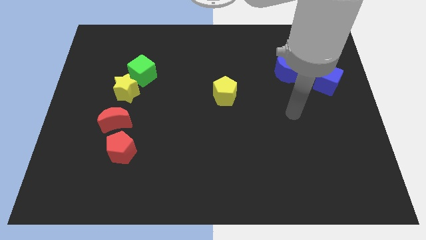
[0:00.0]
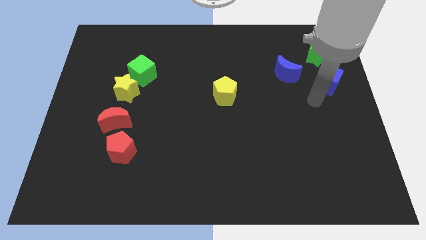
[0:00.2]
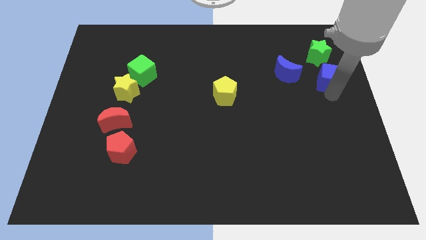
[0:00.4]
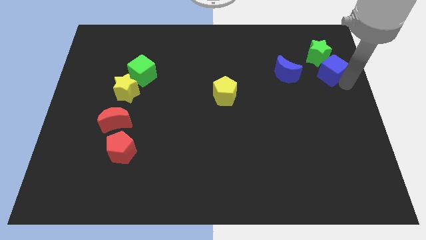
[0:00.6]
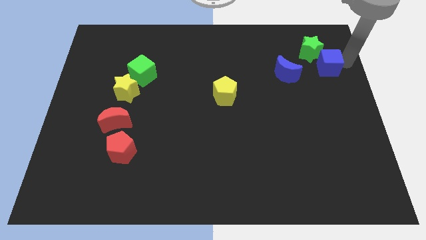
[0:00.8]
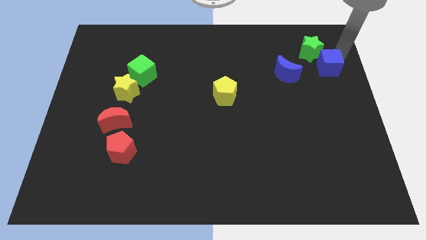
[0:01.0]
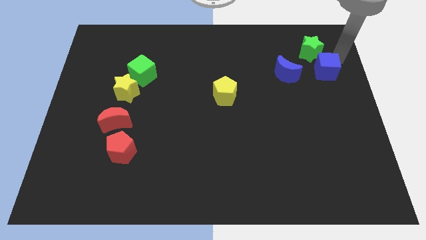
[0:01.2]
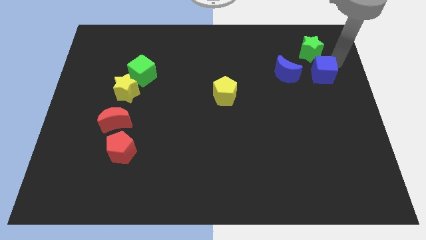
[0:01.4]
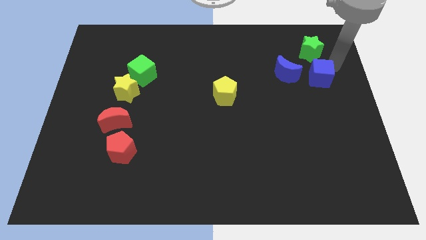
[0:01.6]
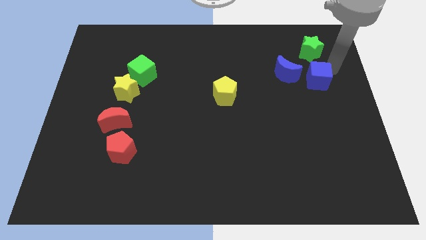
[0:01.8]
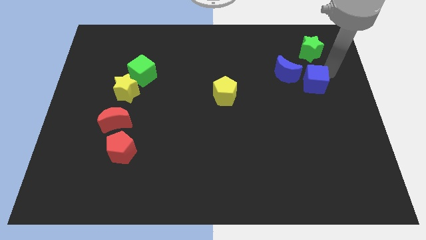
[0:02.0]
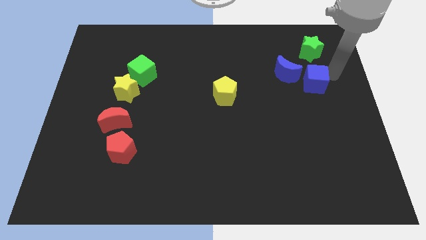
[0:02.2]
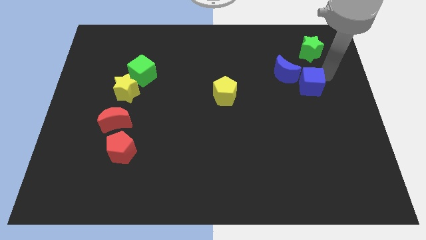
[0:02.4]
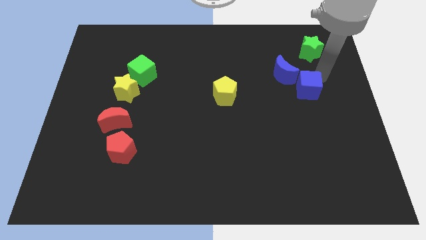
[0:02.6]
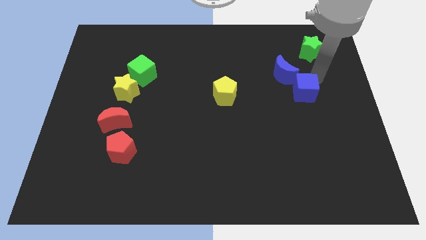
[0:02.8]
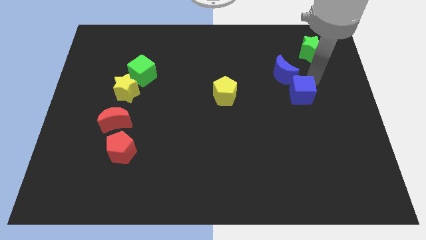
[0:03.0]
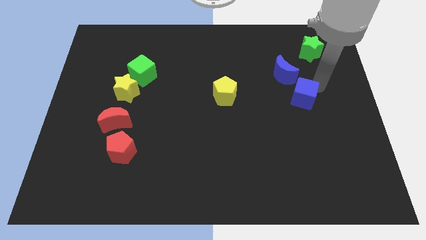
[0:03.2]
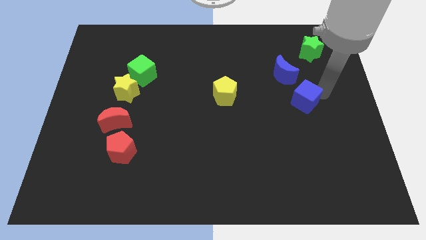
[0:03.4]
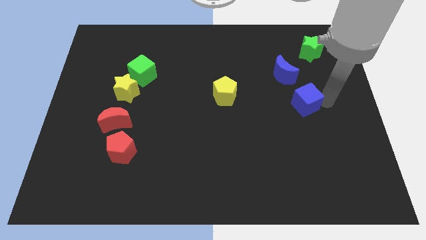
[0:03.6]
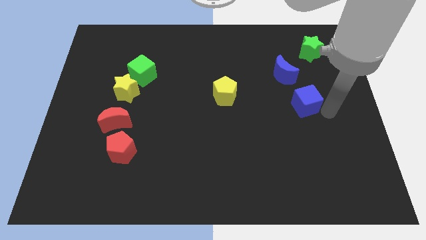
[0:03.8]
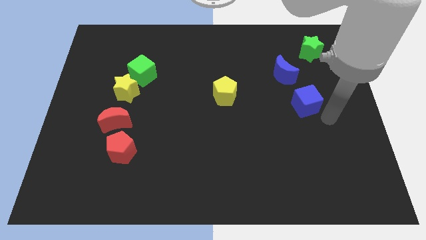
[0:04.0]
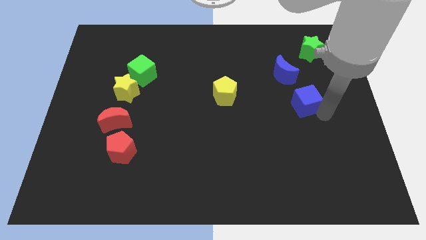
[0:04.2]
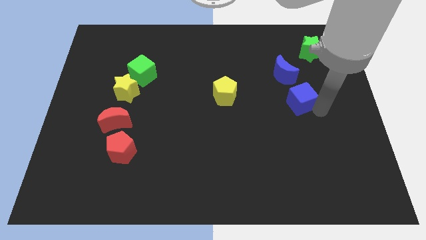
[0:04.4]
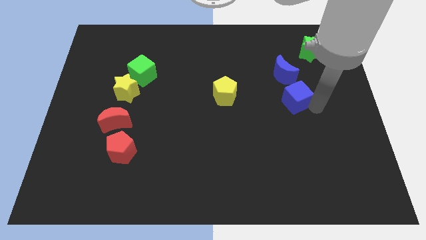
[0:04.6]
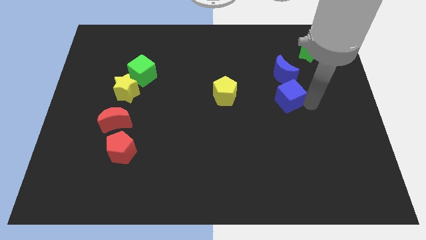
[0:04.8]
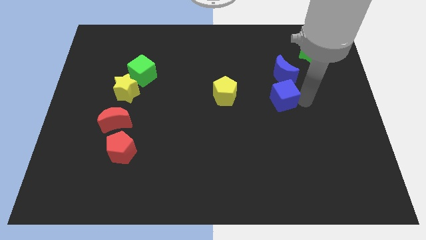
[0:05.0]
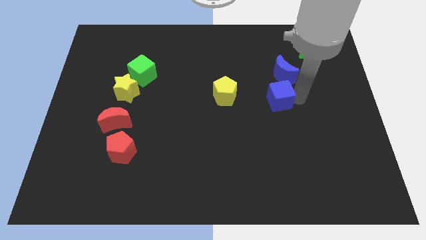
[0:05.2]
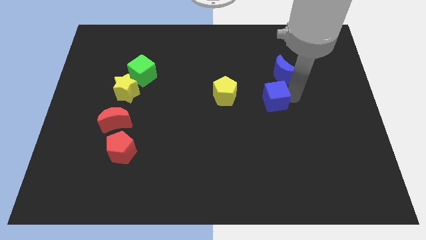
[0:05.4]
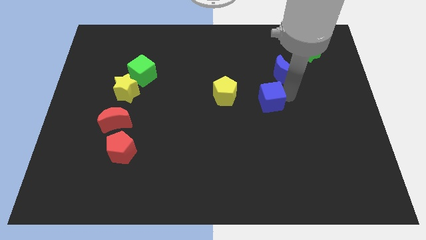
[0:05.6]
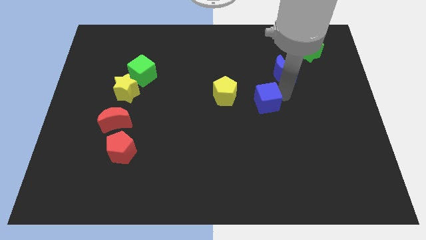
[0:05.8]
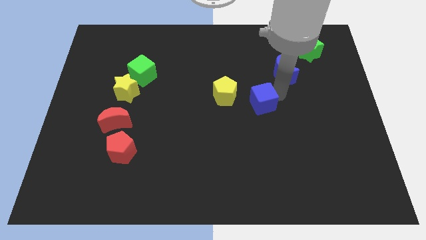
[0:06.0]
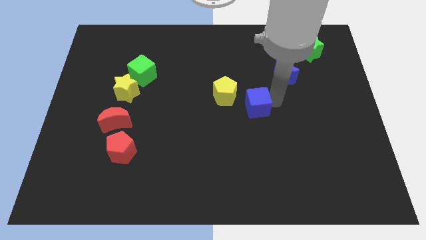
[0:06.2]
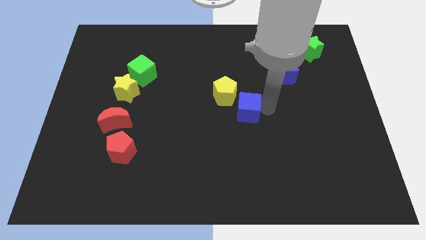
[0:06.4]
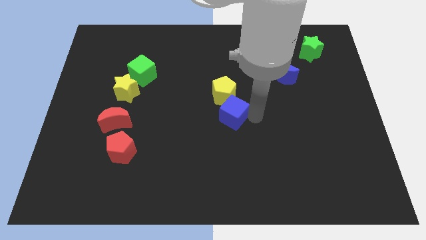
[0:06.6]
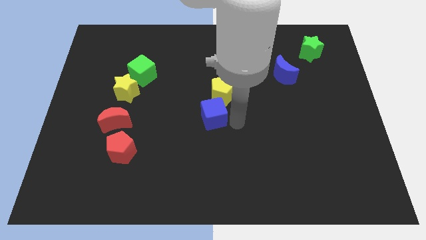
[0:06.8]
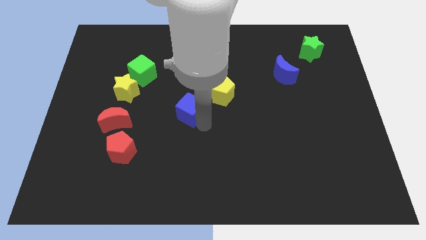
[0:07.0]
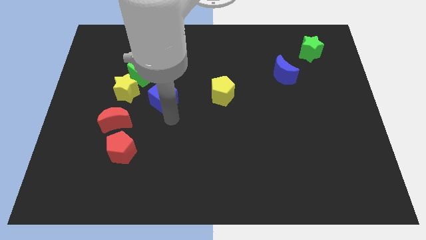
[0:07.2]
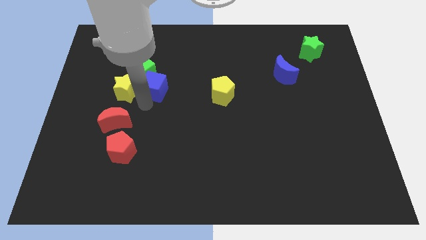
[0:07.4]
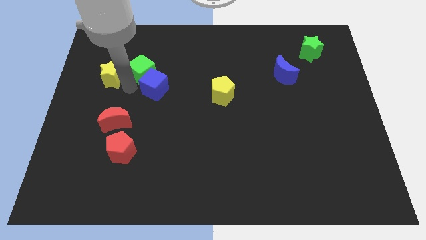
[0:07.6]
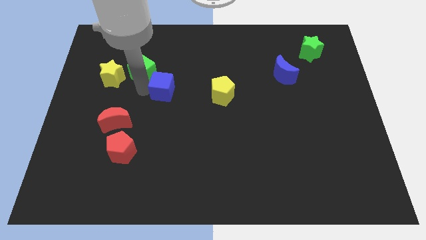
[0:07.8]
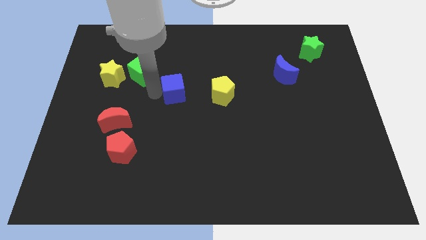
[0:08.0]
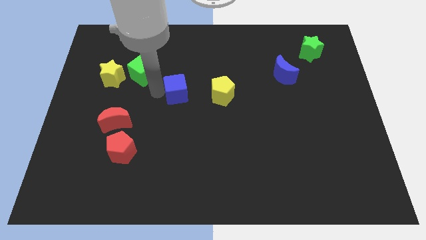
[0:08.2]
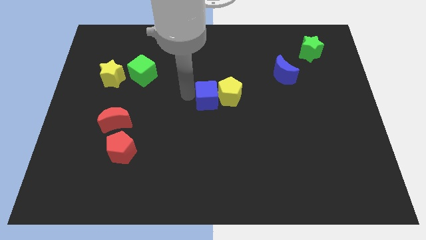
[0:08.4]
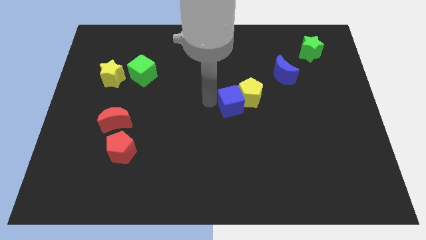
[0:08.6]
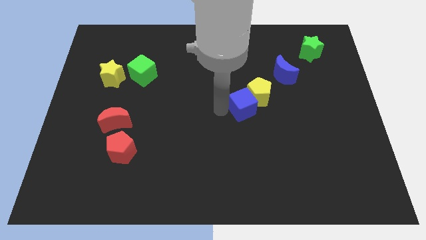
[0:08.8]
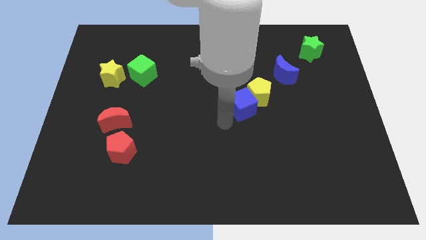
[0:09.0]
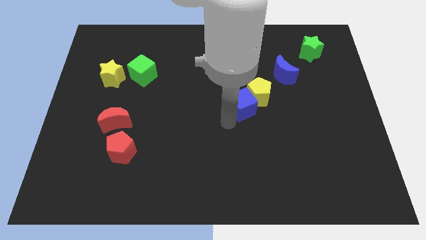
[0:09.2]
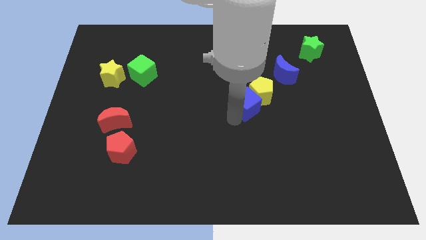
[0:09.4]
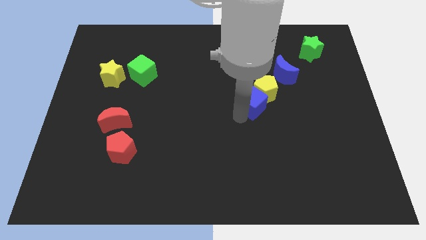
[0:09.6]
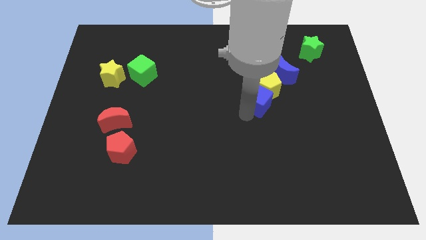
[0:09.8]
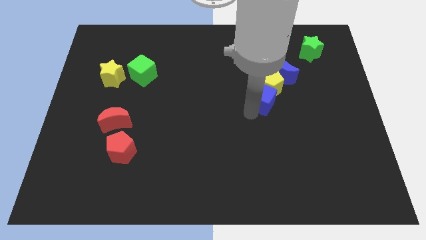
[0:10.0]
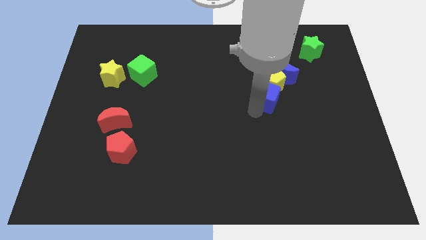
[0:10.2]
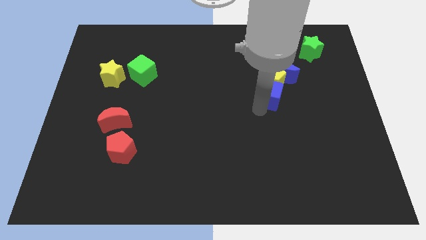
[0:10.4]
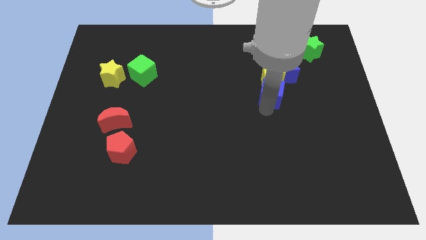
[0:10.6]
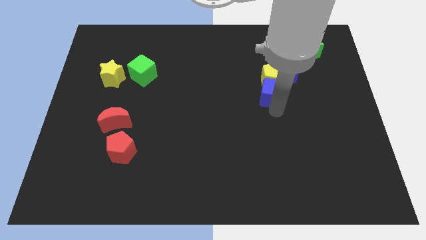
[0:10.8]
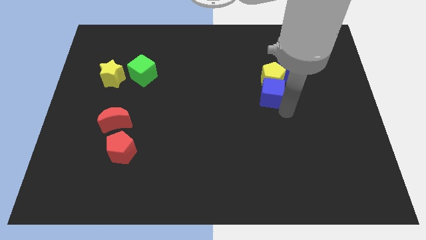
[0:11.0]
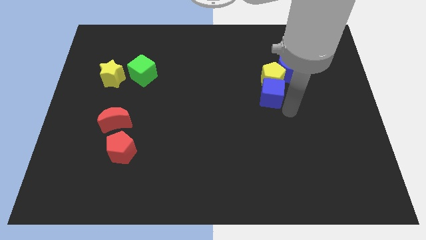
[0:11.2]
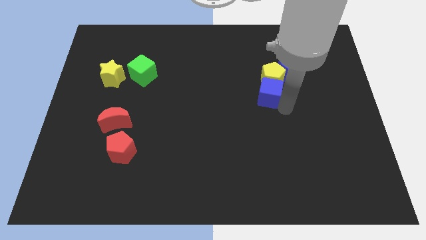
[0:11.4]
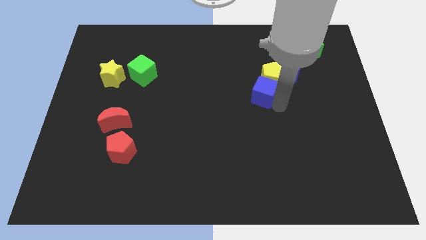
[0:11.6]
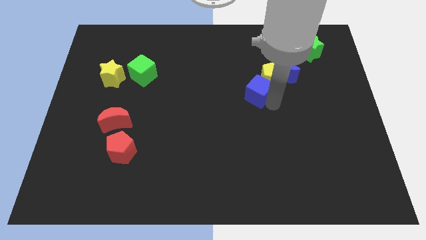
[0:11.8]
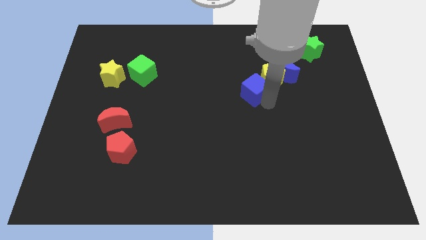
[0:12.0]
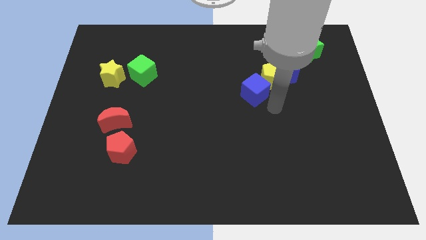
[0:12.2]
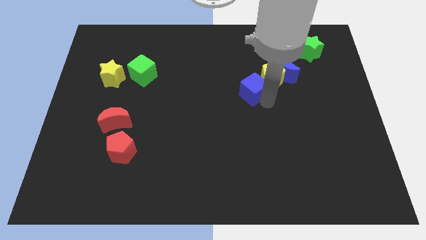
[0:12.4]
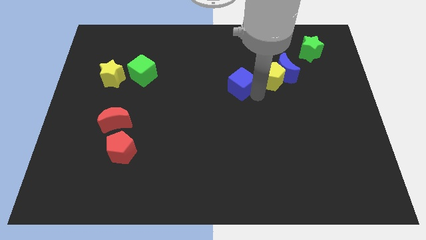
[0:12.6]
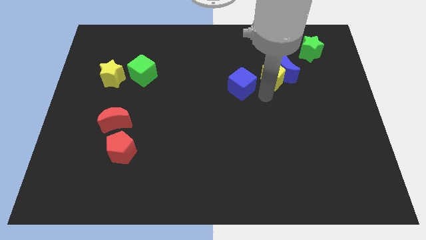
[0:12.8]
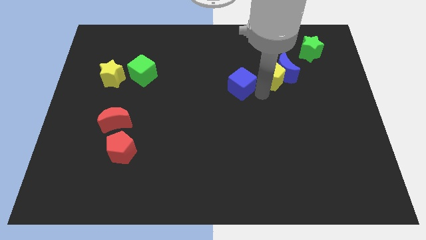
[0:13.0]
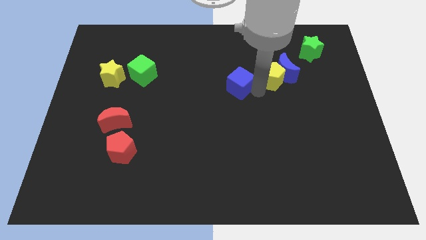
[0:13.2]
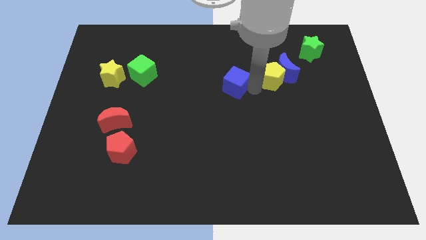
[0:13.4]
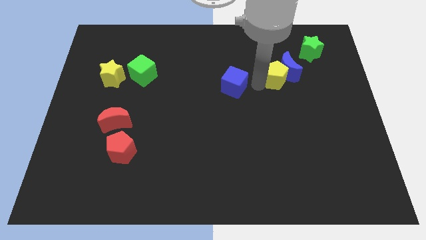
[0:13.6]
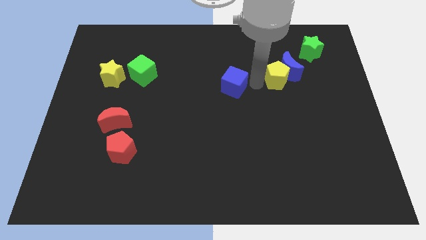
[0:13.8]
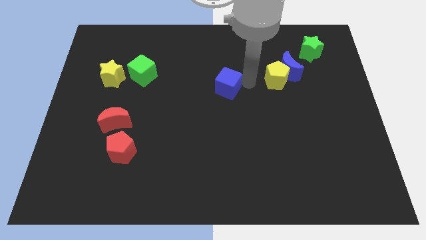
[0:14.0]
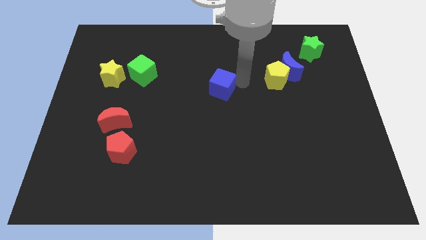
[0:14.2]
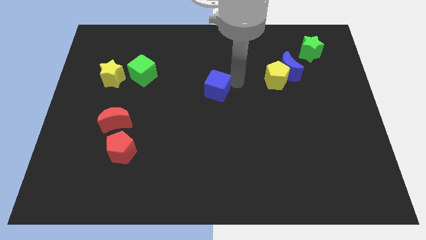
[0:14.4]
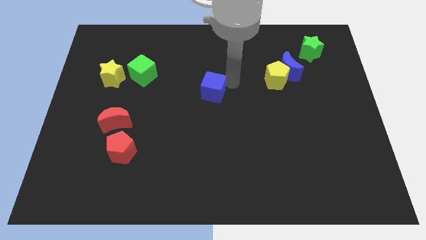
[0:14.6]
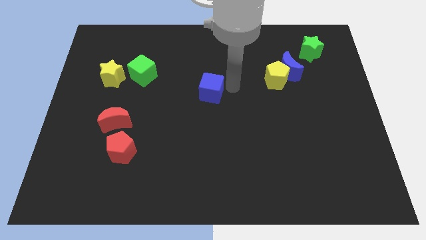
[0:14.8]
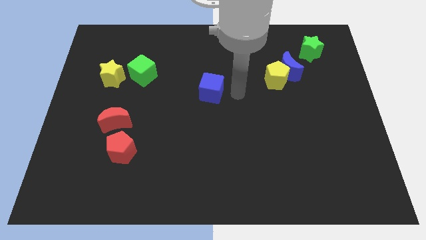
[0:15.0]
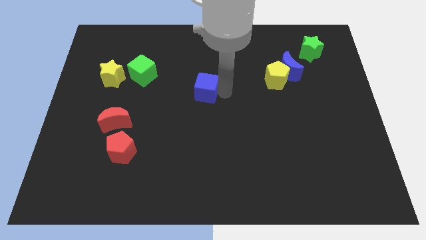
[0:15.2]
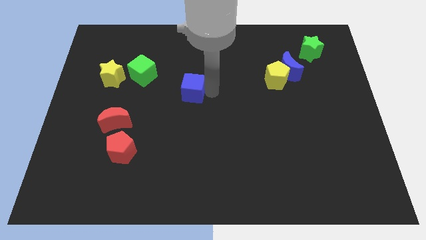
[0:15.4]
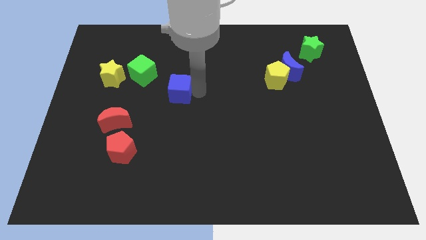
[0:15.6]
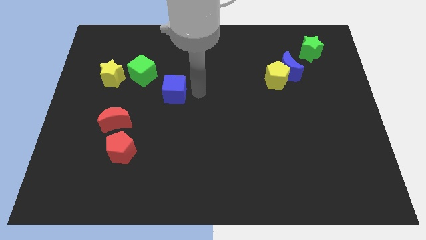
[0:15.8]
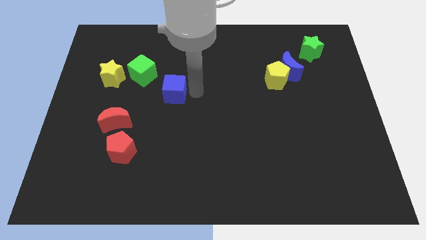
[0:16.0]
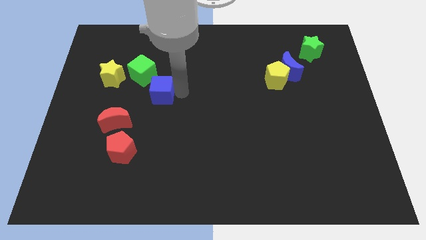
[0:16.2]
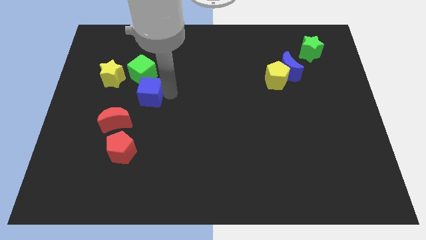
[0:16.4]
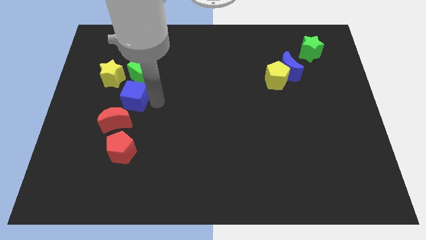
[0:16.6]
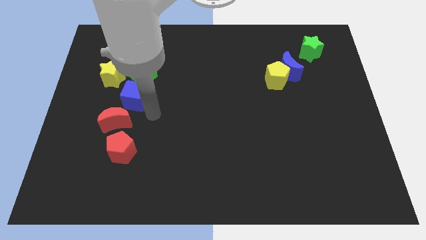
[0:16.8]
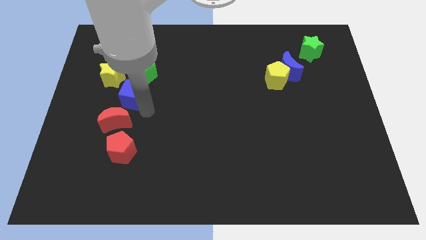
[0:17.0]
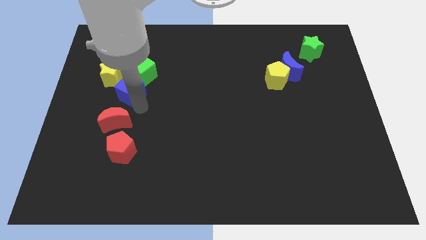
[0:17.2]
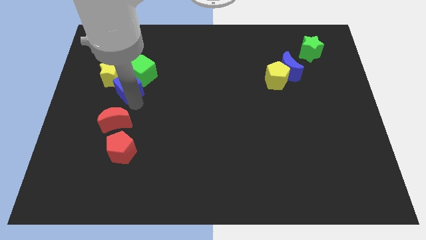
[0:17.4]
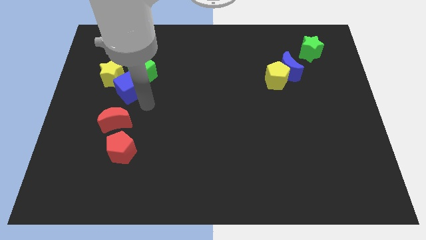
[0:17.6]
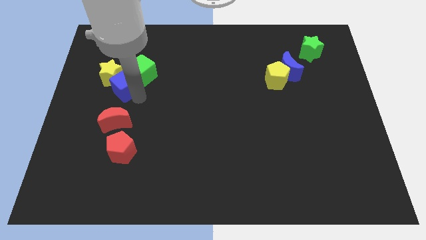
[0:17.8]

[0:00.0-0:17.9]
push the blue cube close to the yellow star
